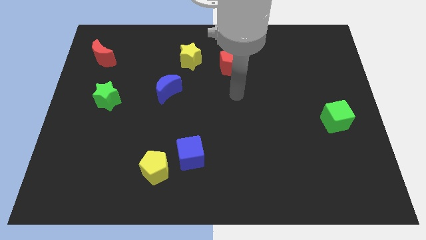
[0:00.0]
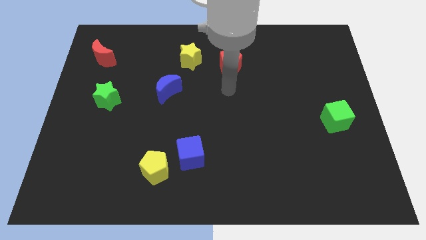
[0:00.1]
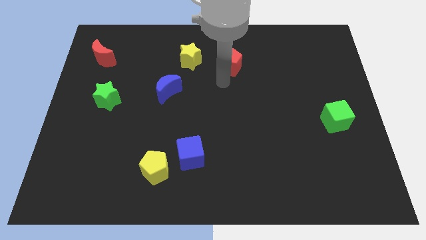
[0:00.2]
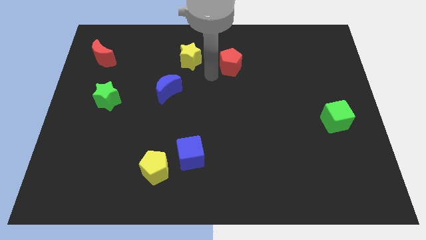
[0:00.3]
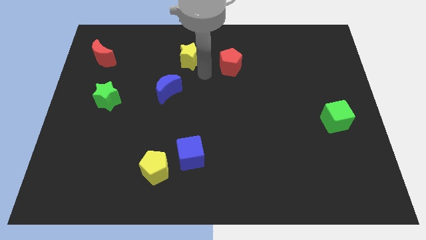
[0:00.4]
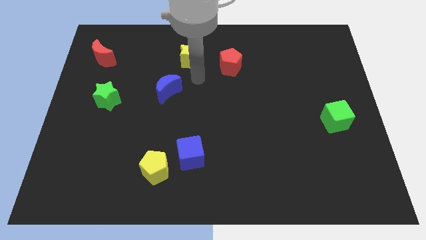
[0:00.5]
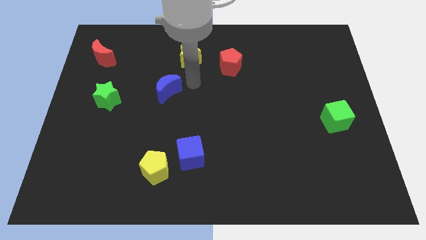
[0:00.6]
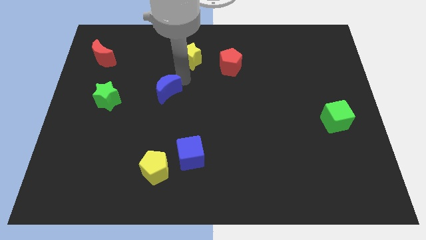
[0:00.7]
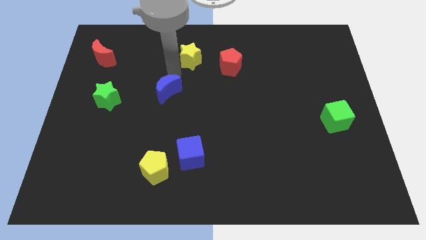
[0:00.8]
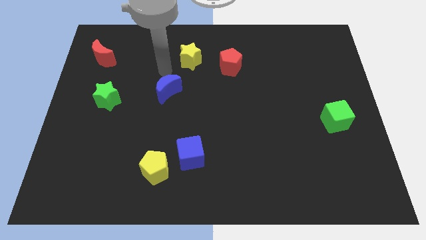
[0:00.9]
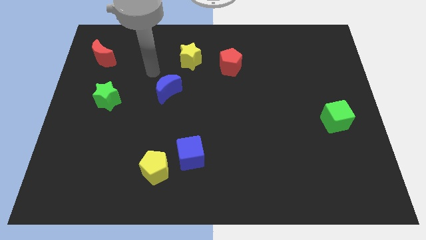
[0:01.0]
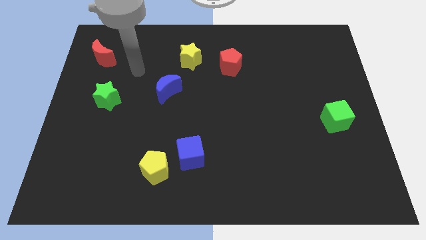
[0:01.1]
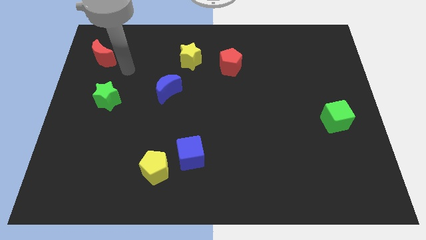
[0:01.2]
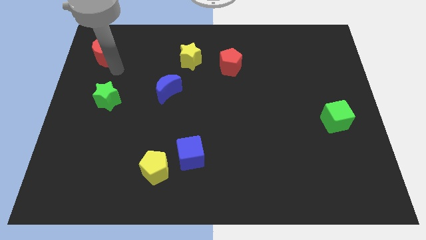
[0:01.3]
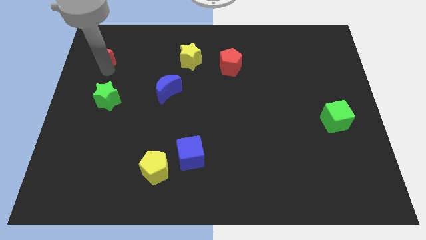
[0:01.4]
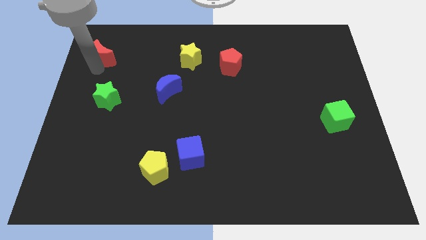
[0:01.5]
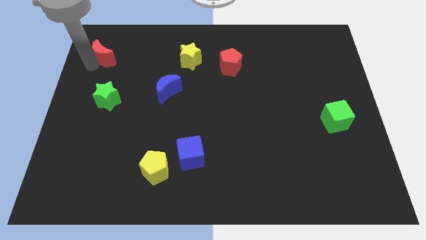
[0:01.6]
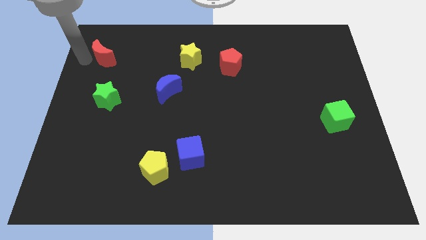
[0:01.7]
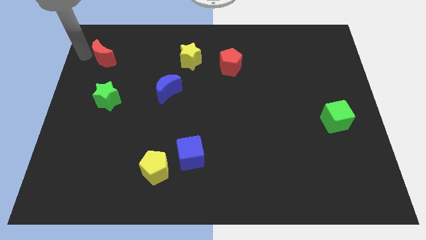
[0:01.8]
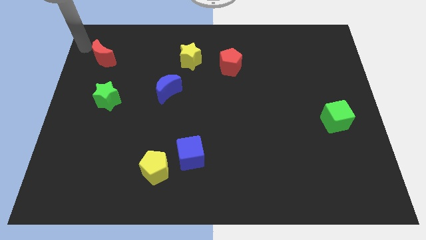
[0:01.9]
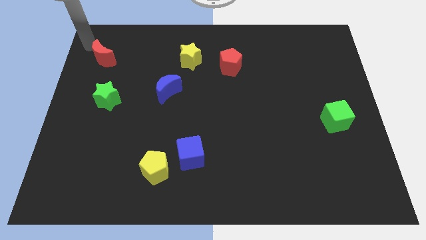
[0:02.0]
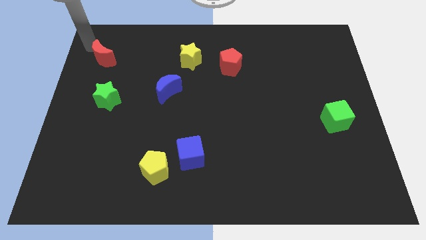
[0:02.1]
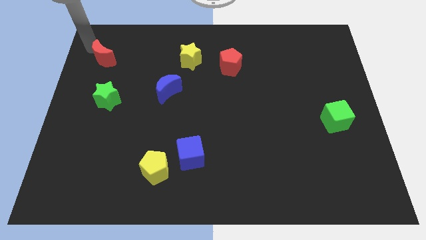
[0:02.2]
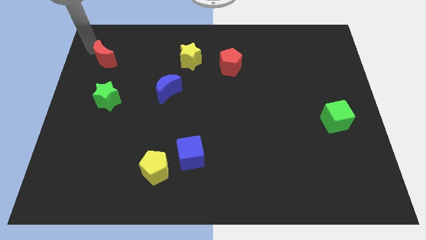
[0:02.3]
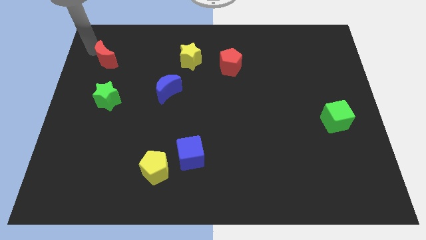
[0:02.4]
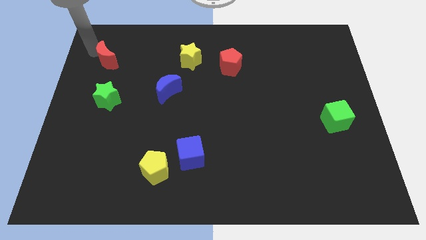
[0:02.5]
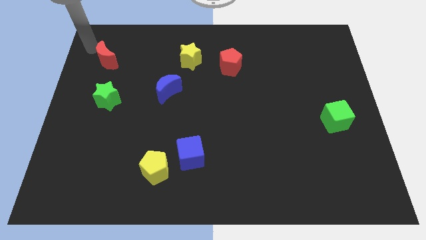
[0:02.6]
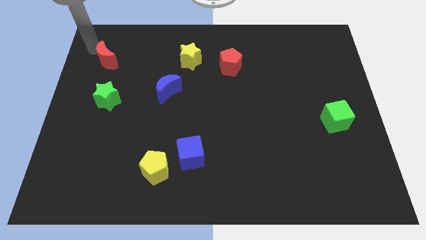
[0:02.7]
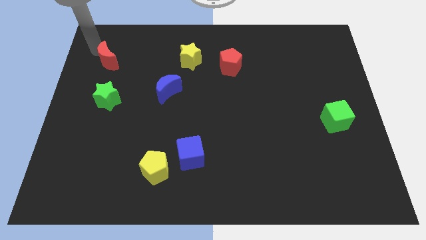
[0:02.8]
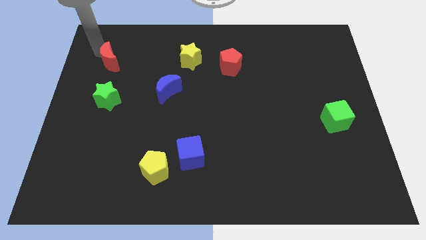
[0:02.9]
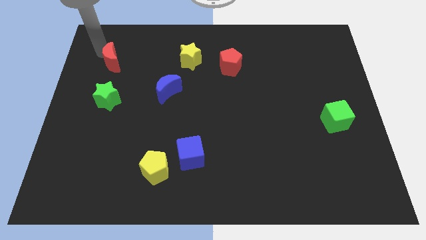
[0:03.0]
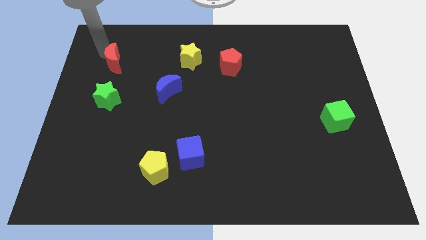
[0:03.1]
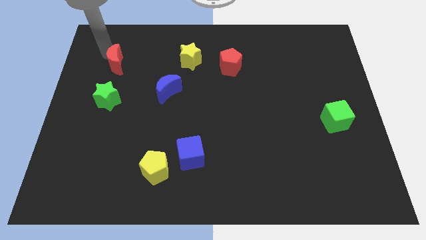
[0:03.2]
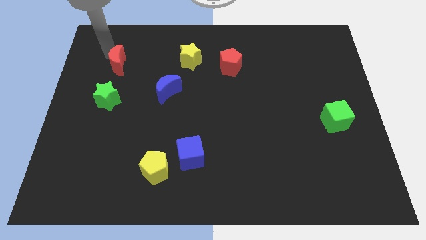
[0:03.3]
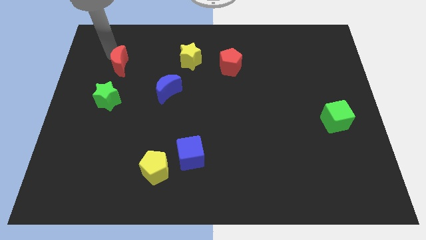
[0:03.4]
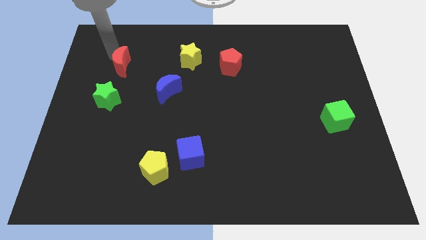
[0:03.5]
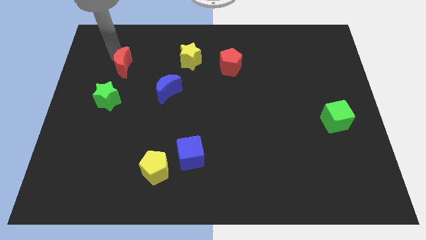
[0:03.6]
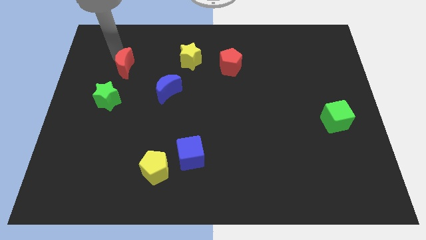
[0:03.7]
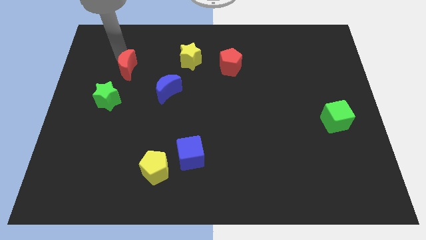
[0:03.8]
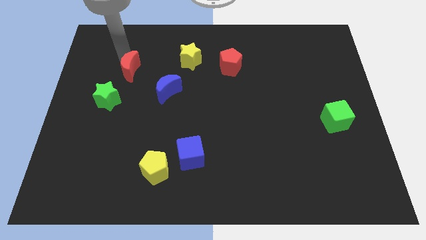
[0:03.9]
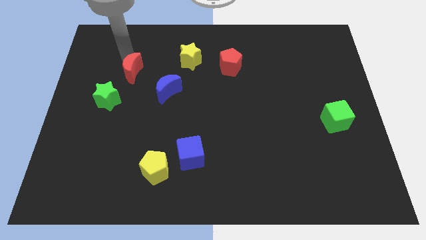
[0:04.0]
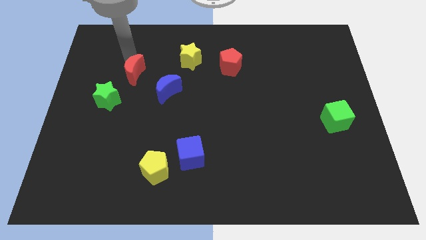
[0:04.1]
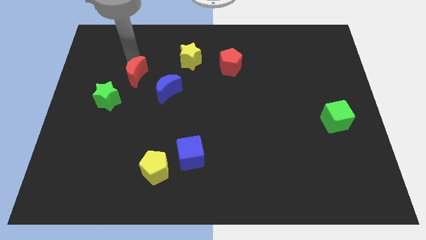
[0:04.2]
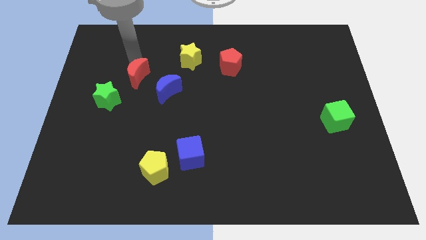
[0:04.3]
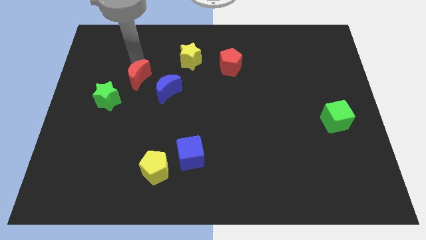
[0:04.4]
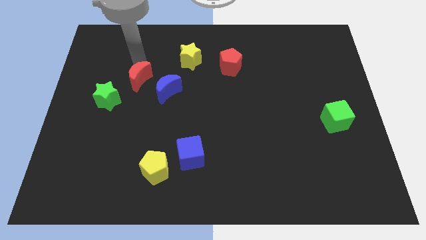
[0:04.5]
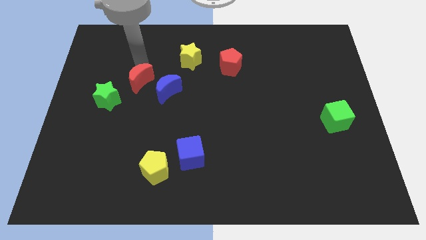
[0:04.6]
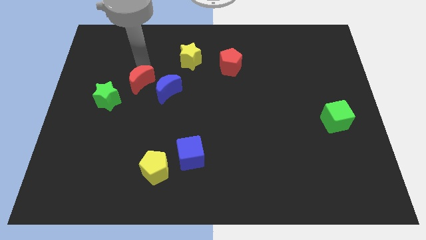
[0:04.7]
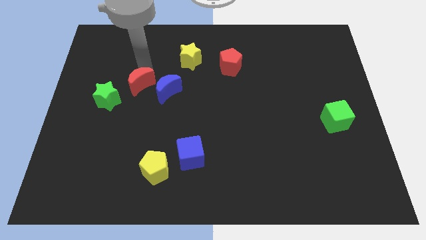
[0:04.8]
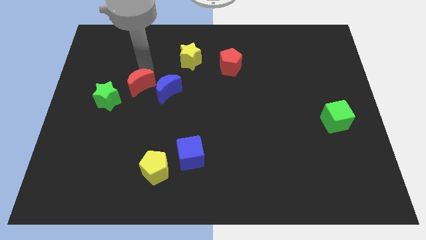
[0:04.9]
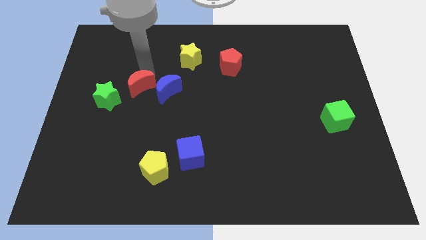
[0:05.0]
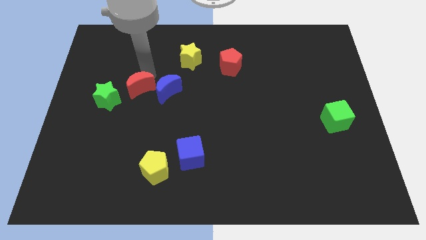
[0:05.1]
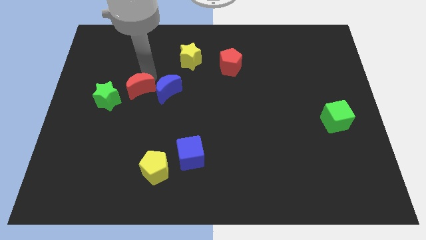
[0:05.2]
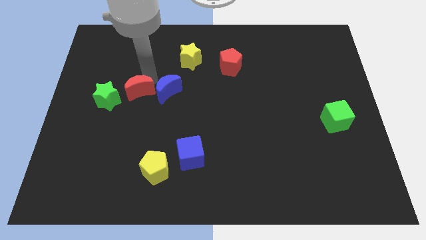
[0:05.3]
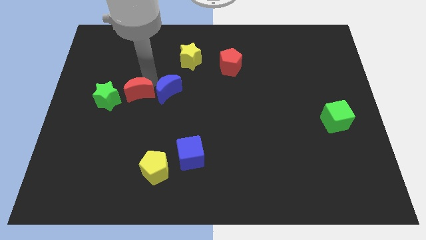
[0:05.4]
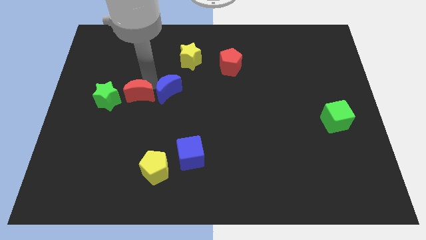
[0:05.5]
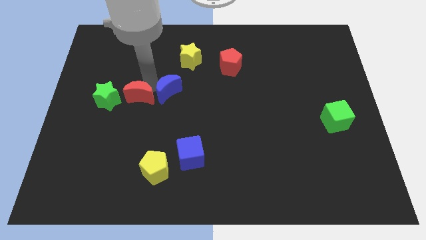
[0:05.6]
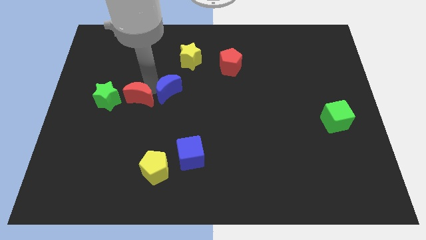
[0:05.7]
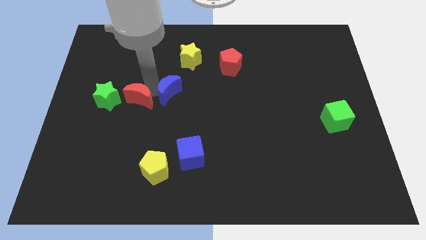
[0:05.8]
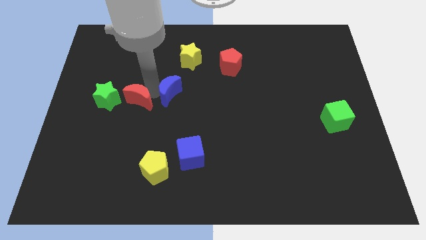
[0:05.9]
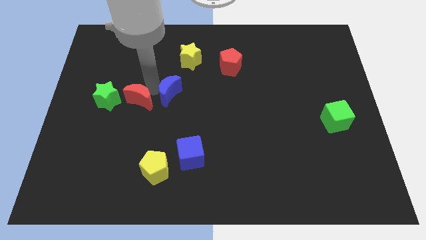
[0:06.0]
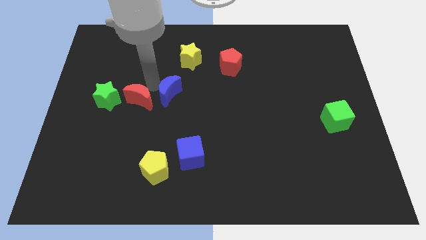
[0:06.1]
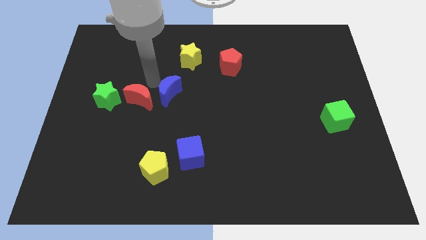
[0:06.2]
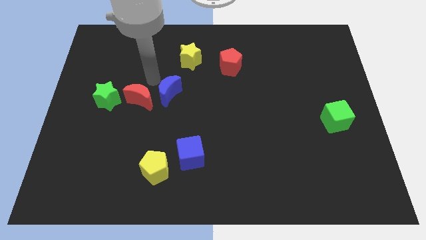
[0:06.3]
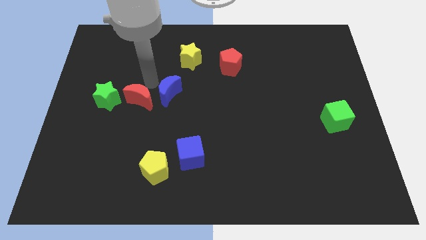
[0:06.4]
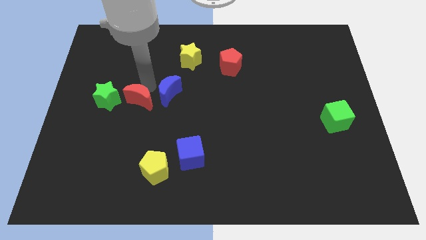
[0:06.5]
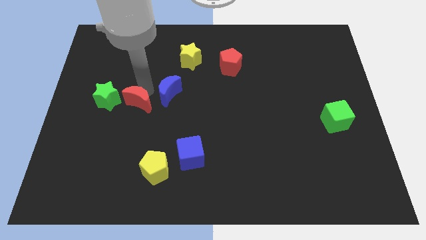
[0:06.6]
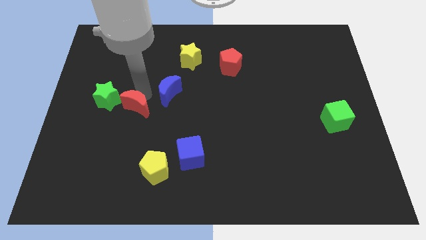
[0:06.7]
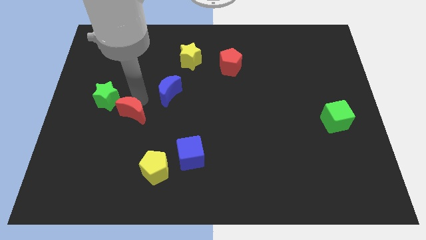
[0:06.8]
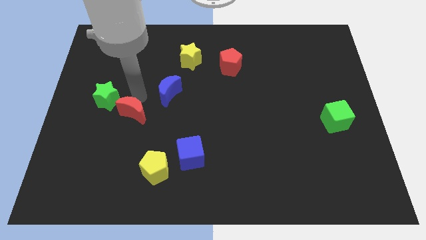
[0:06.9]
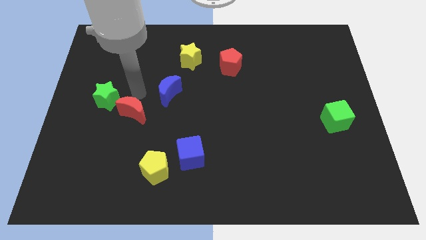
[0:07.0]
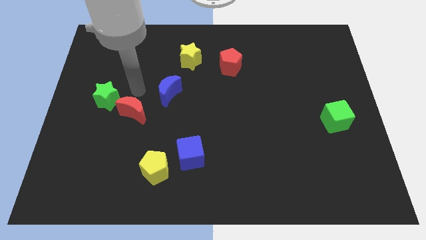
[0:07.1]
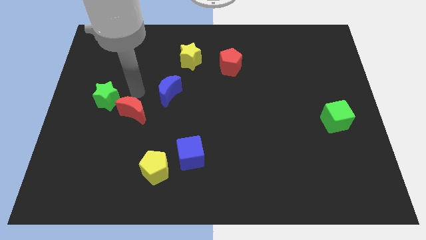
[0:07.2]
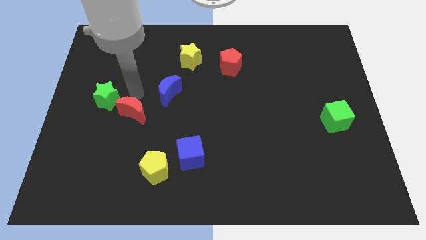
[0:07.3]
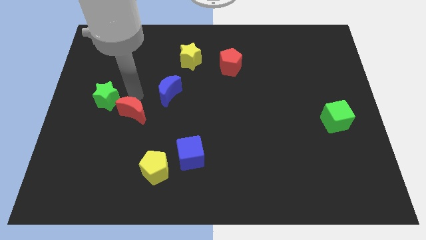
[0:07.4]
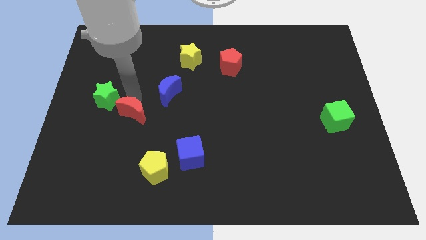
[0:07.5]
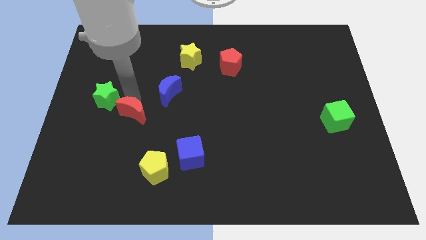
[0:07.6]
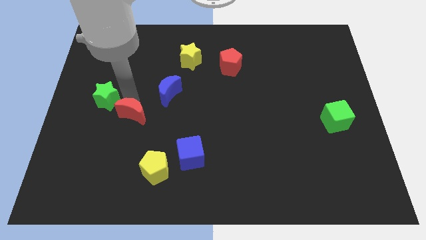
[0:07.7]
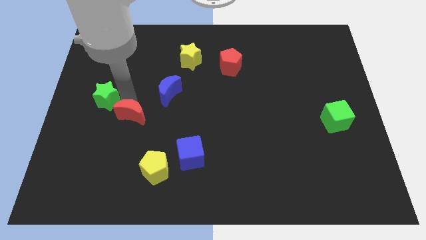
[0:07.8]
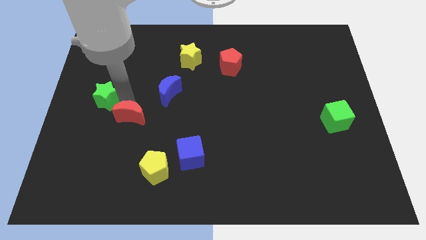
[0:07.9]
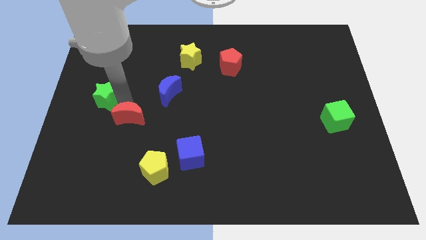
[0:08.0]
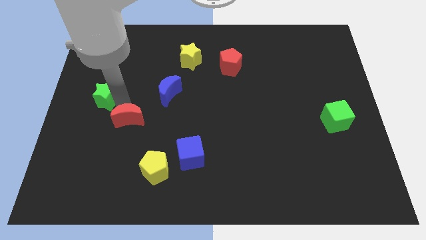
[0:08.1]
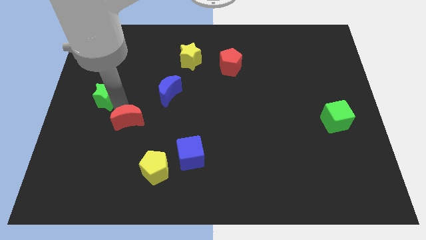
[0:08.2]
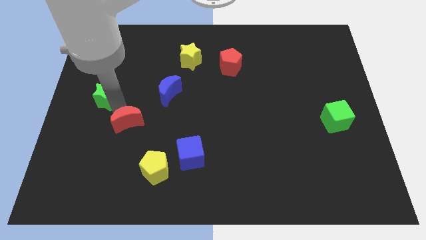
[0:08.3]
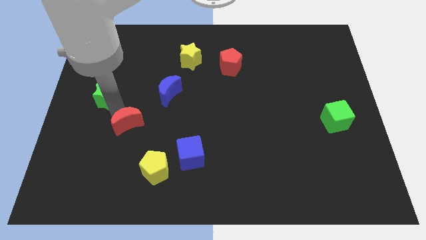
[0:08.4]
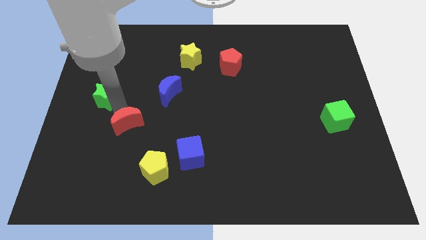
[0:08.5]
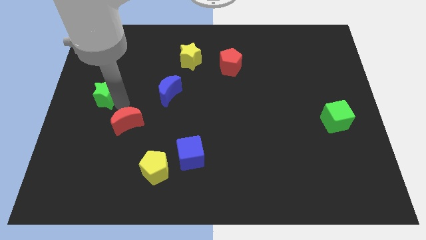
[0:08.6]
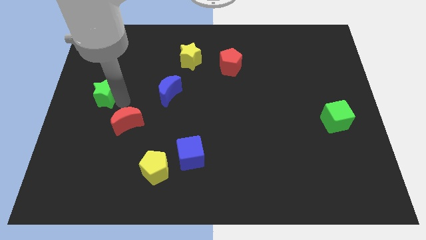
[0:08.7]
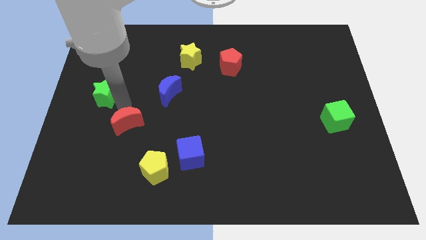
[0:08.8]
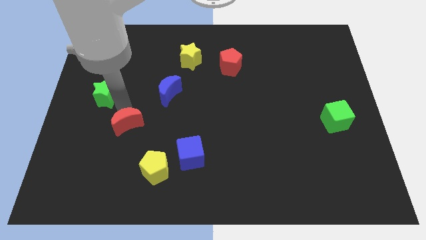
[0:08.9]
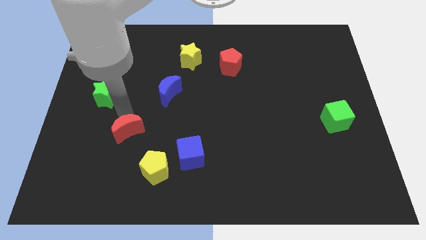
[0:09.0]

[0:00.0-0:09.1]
push the red moon to the top left of the yellow pentagon
